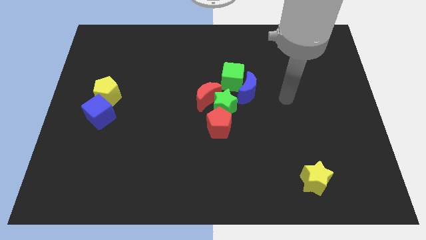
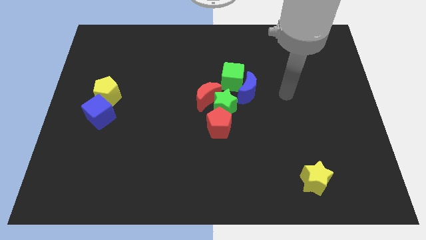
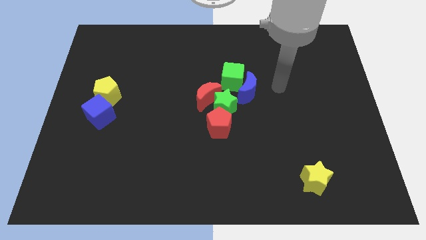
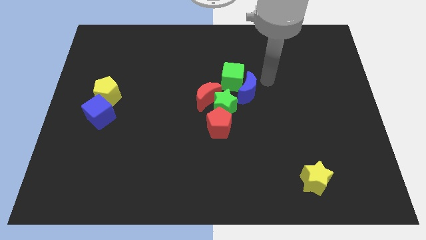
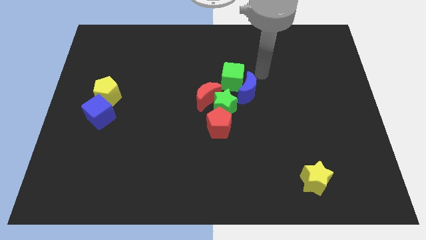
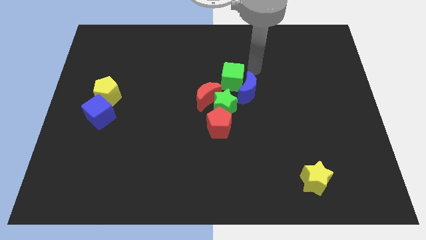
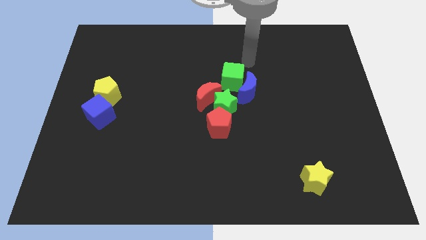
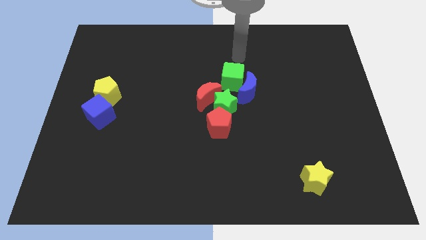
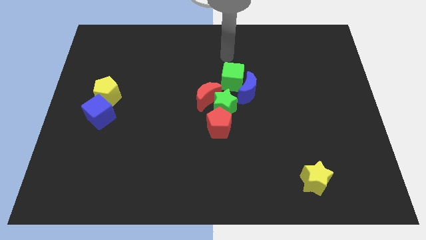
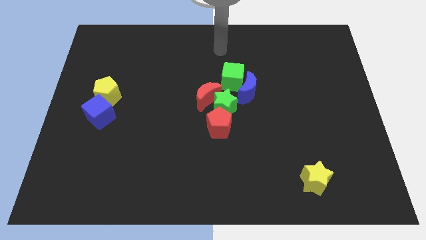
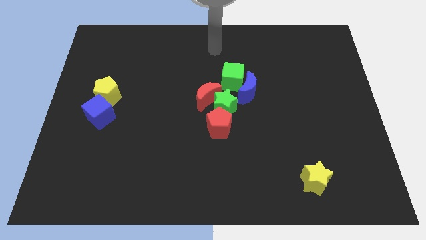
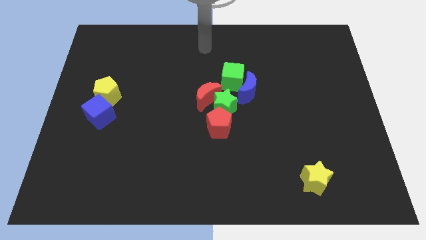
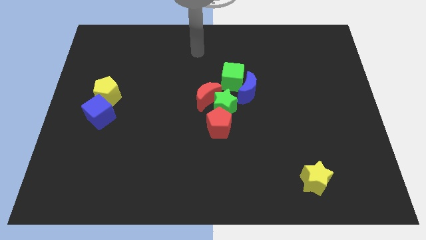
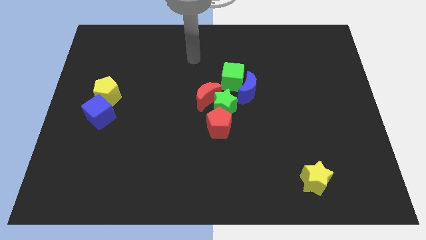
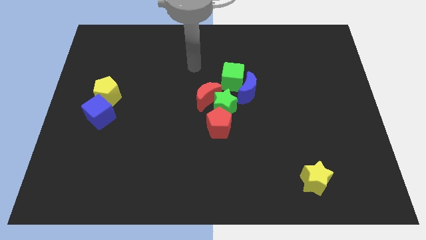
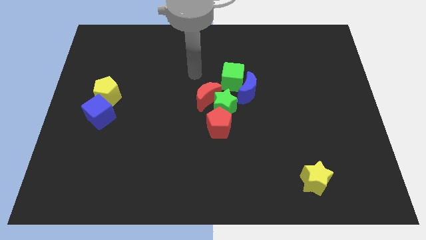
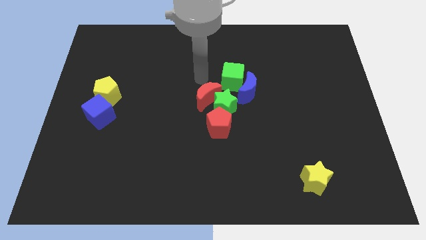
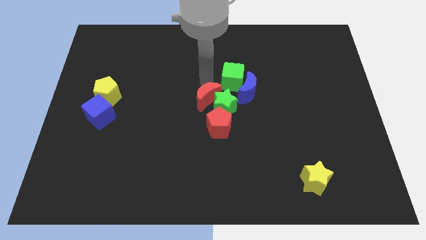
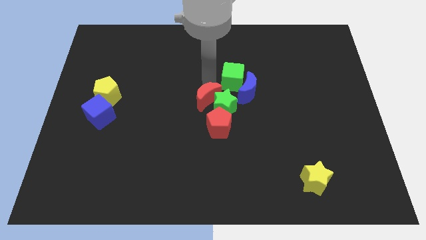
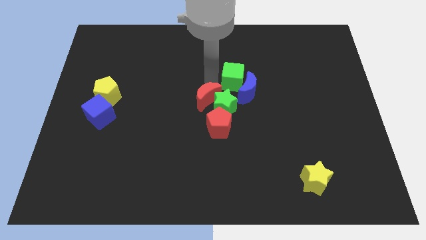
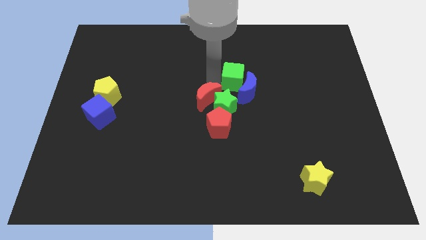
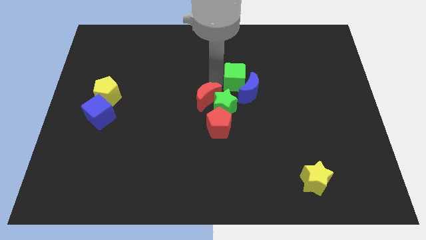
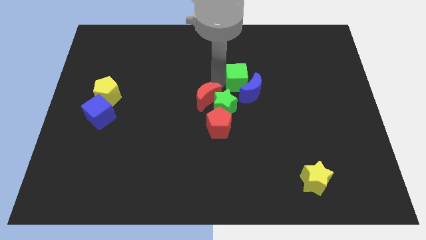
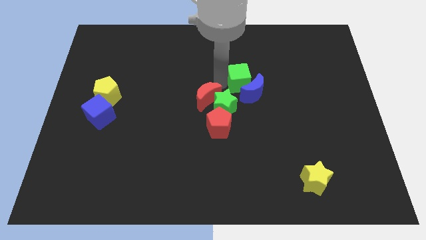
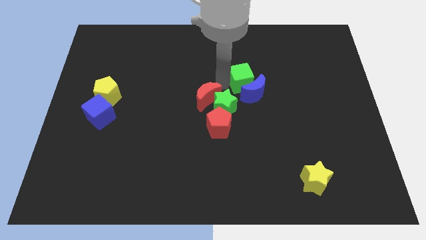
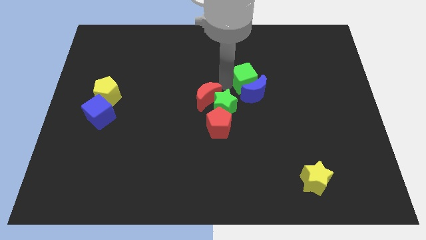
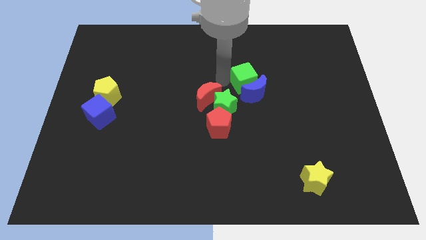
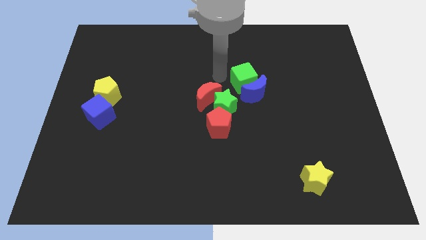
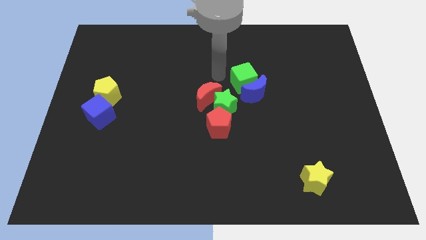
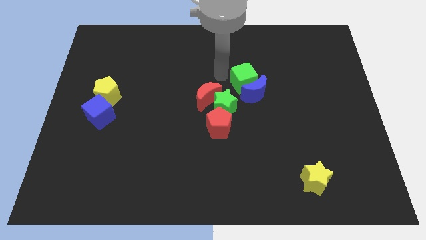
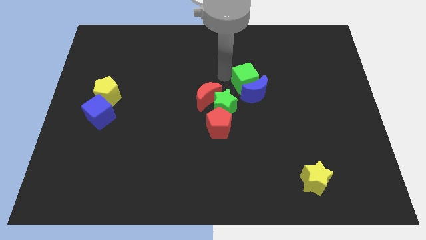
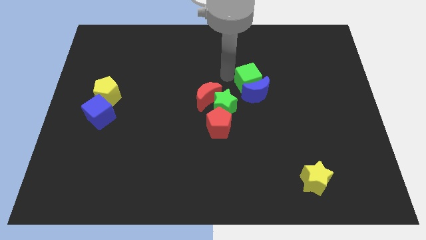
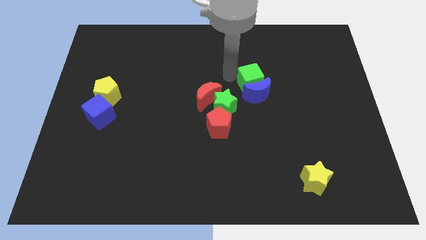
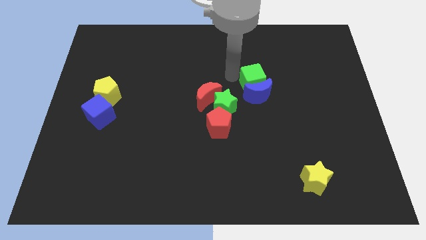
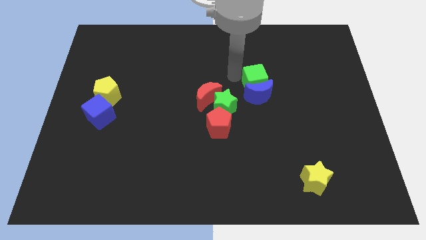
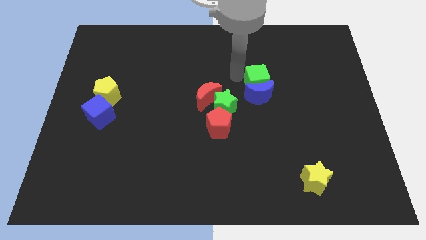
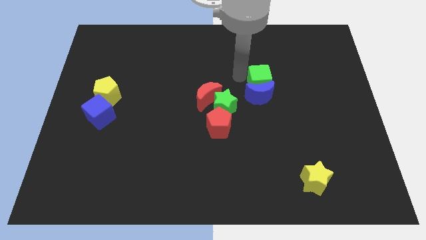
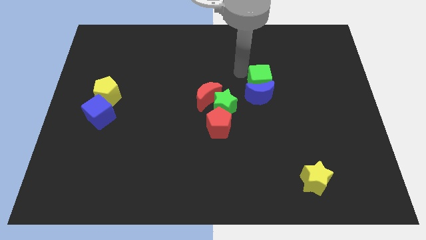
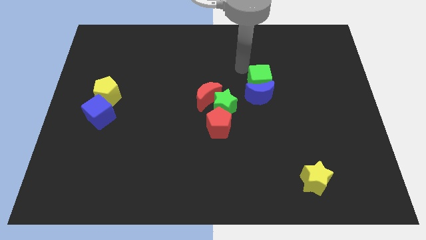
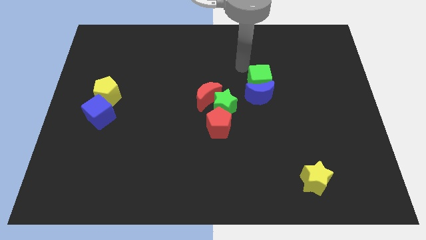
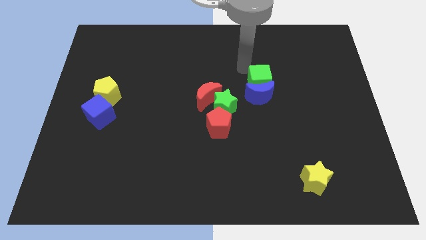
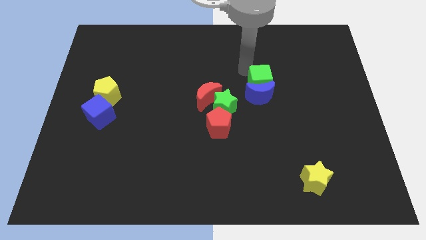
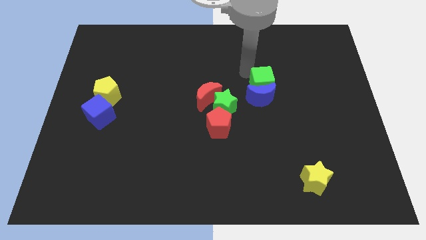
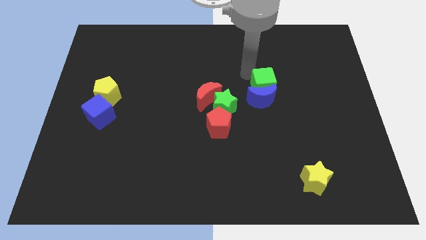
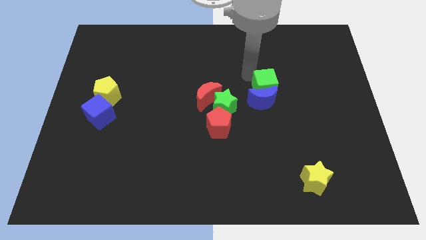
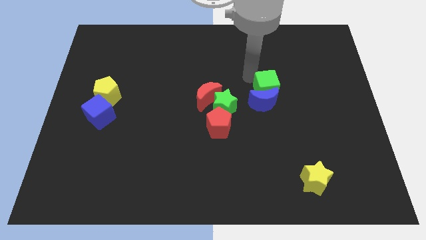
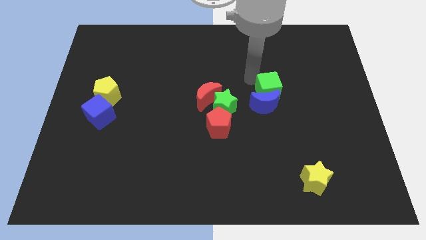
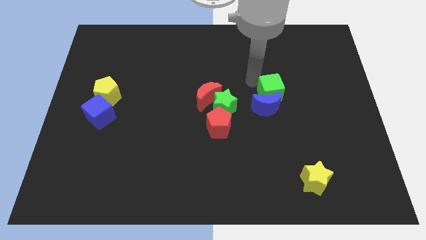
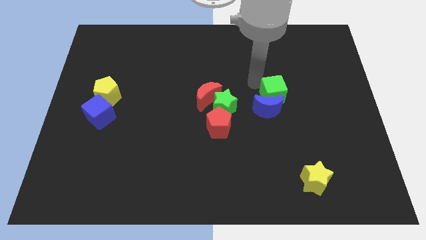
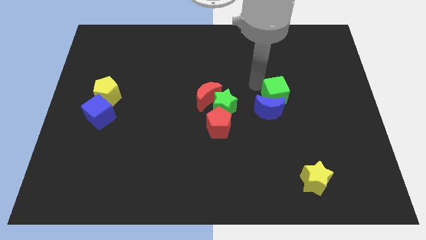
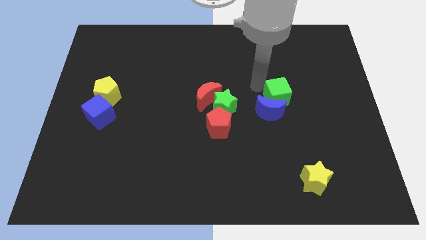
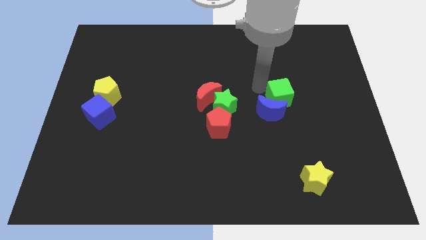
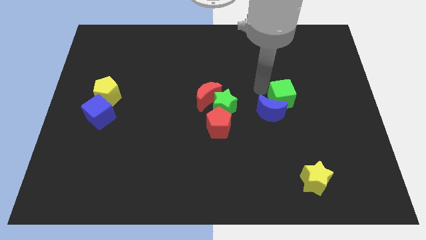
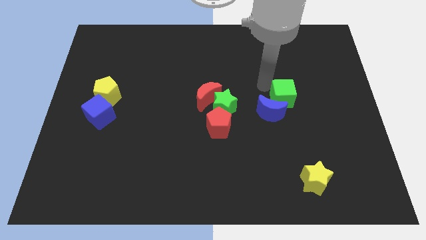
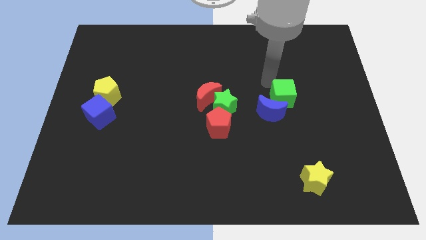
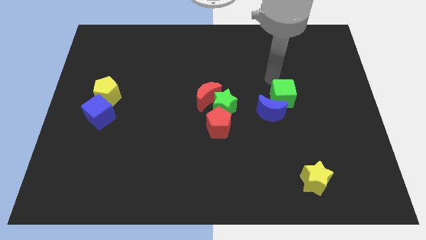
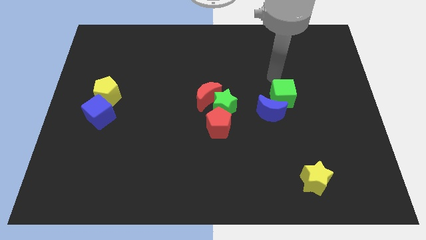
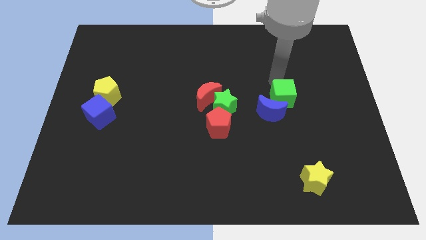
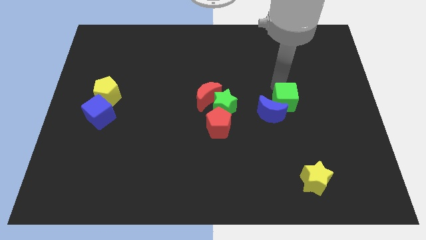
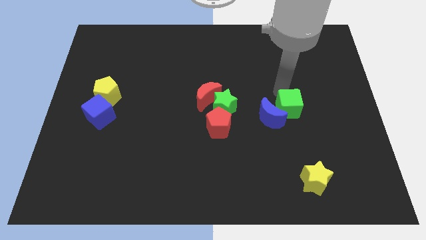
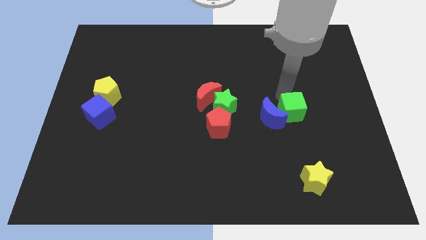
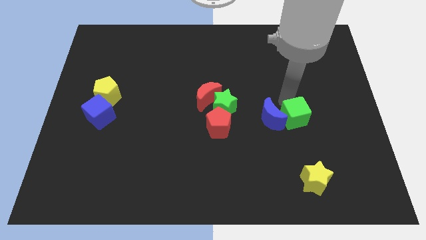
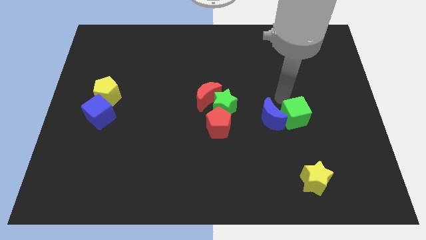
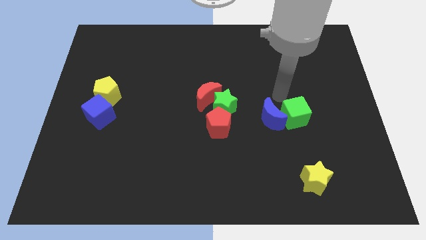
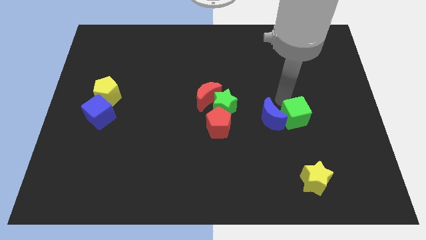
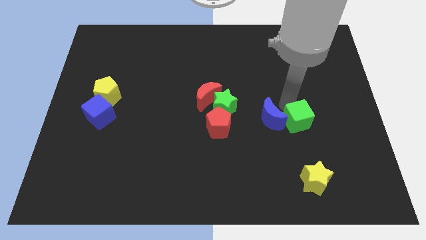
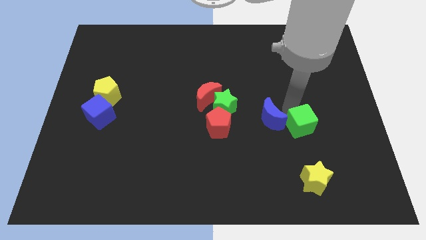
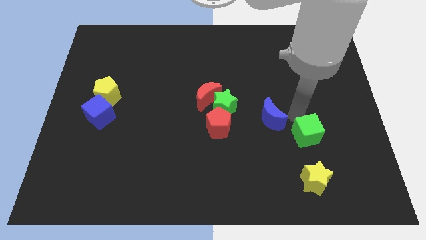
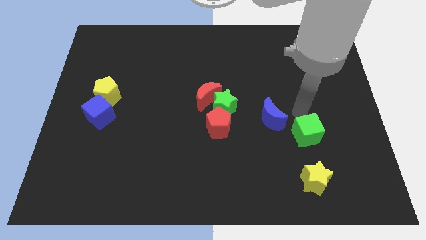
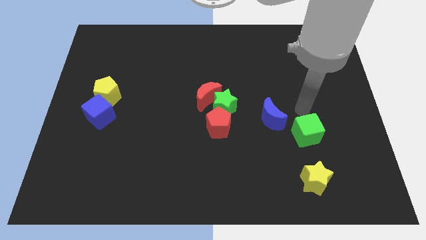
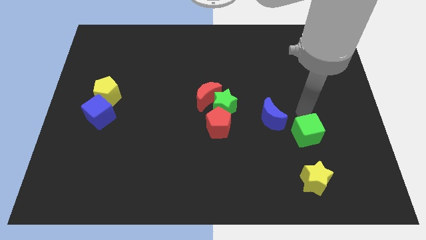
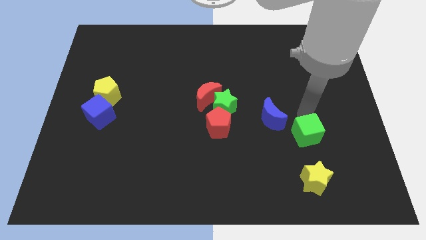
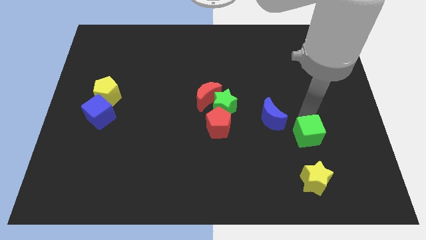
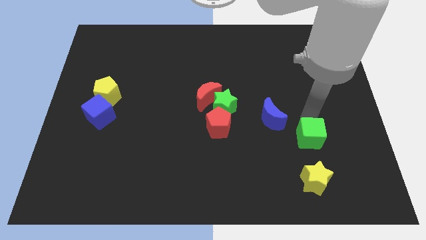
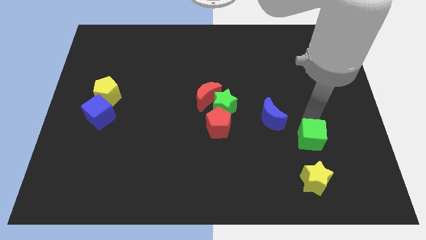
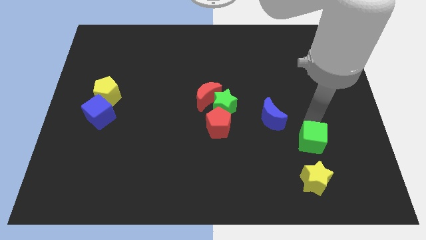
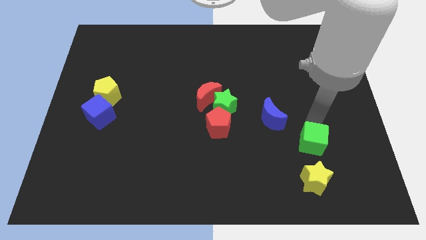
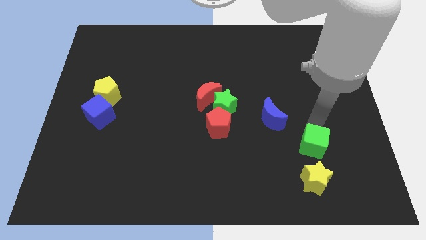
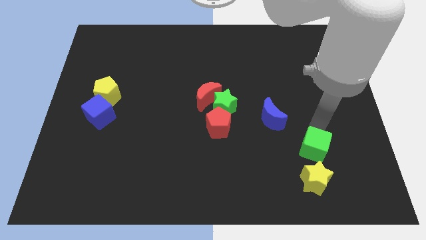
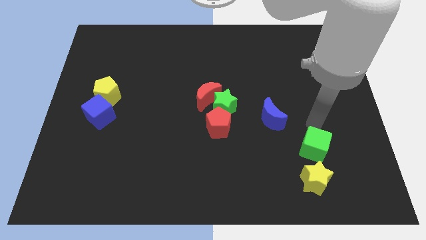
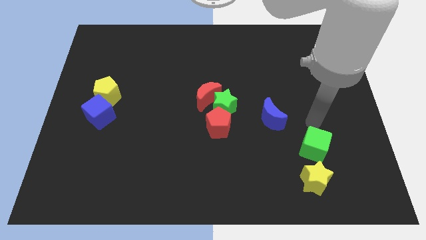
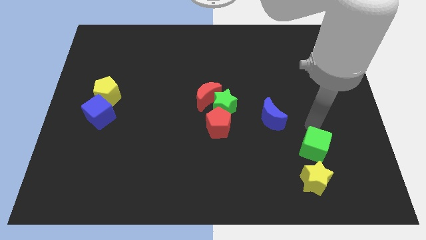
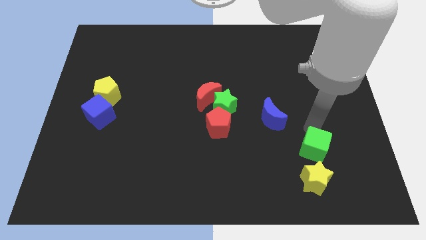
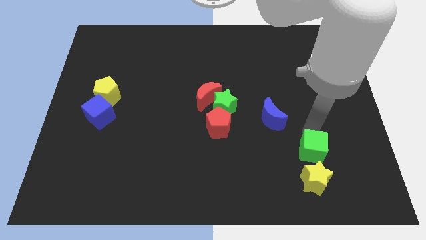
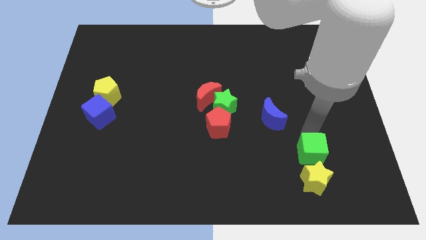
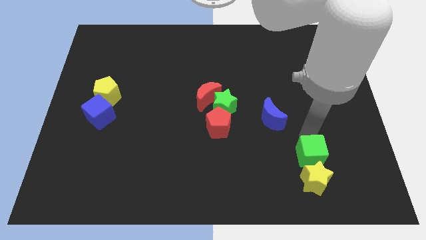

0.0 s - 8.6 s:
push the green cube close to the yellow star
